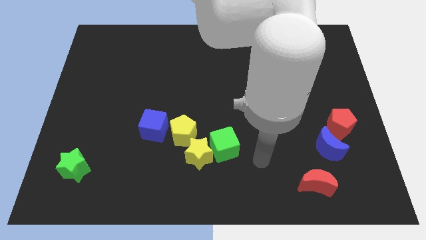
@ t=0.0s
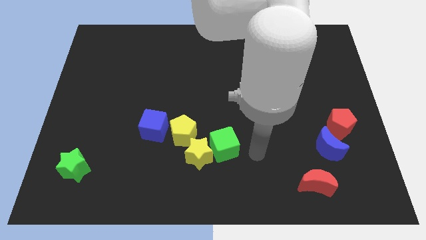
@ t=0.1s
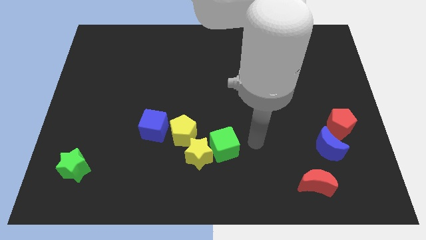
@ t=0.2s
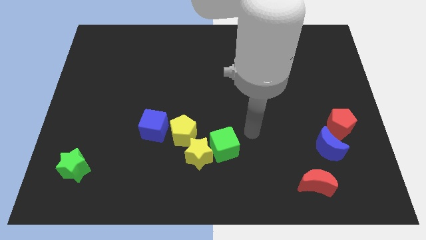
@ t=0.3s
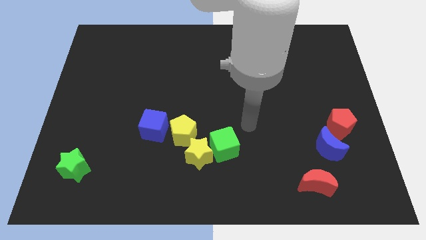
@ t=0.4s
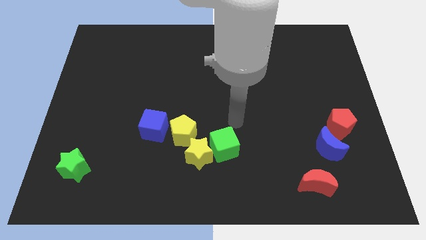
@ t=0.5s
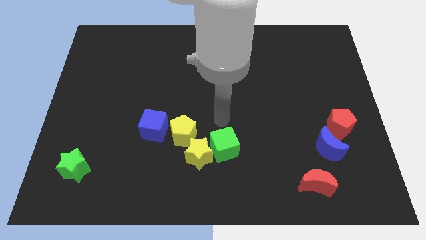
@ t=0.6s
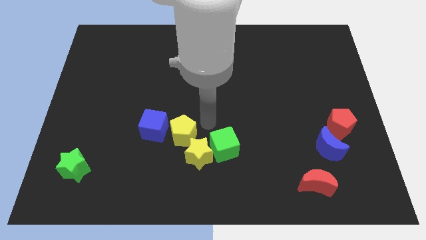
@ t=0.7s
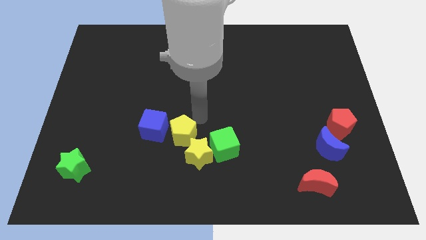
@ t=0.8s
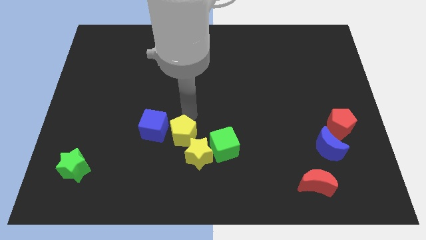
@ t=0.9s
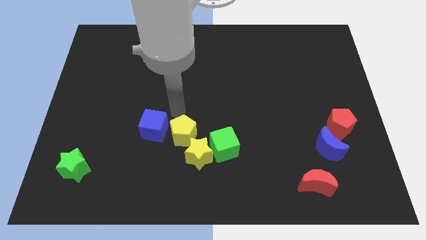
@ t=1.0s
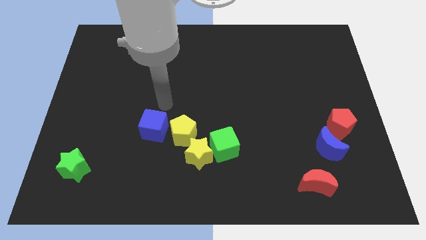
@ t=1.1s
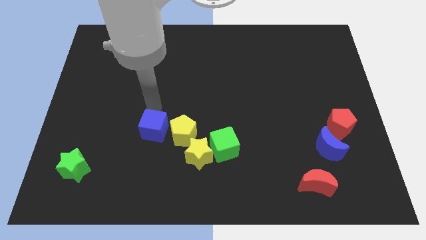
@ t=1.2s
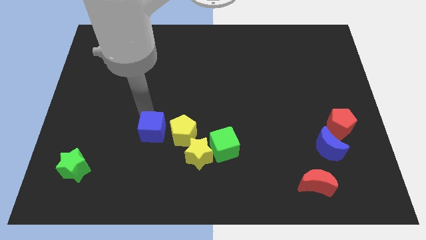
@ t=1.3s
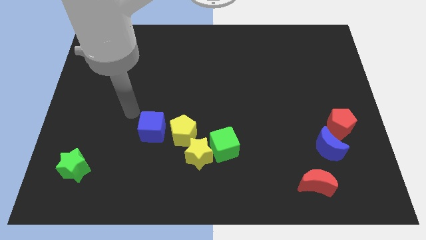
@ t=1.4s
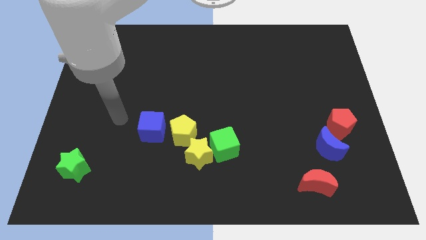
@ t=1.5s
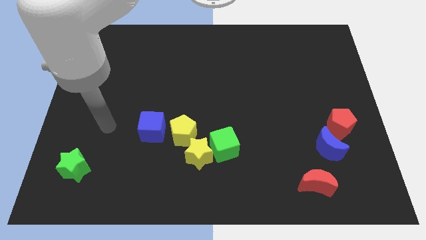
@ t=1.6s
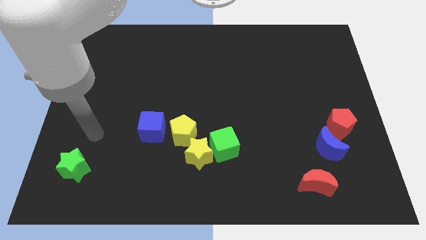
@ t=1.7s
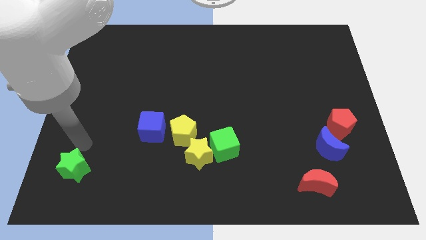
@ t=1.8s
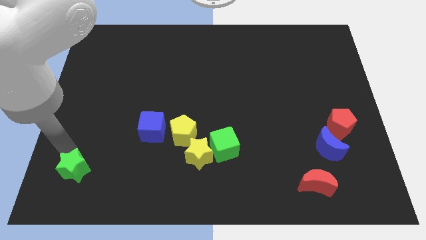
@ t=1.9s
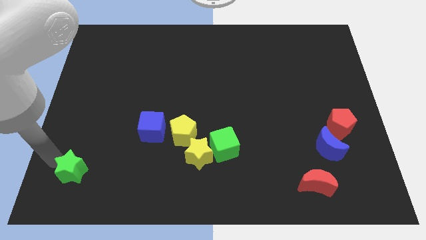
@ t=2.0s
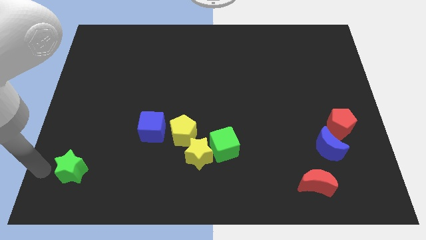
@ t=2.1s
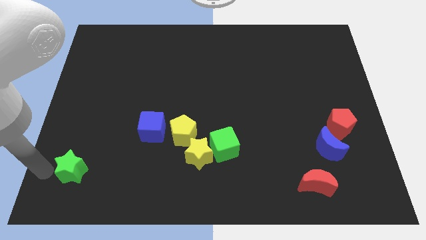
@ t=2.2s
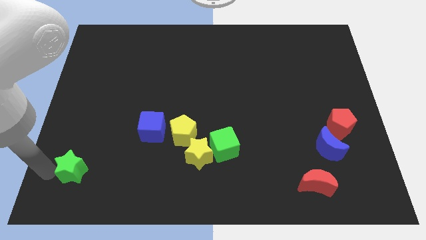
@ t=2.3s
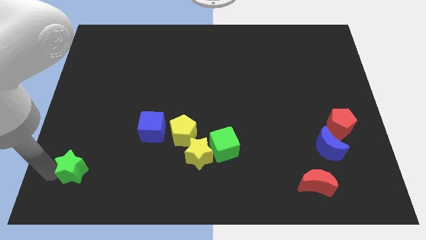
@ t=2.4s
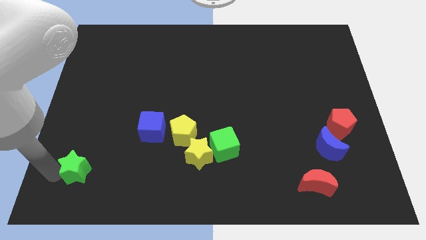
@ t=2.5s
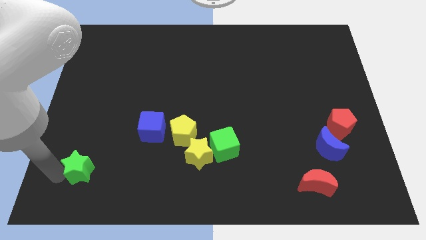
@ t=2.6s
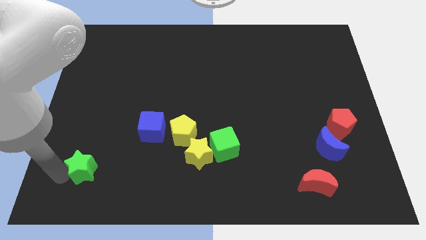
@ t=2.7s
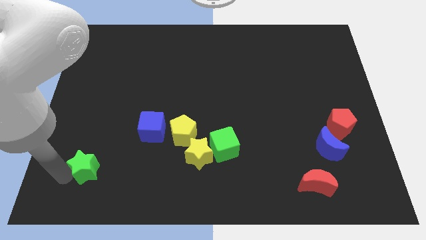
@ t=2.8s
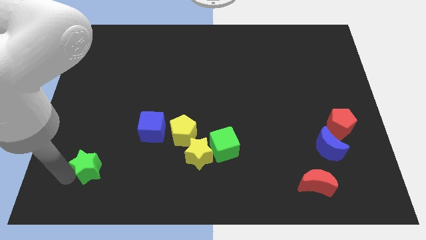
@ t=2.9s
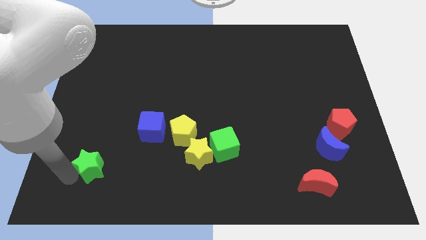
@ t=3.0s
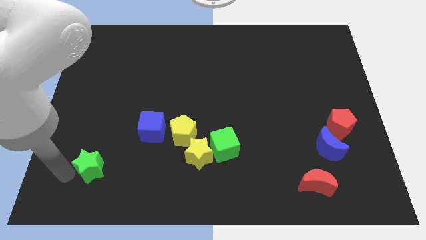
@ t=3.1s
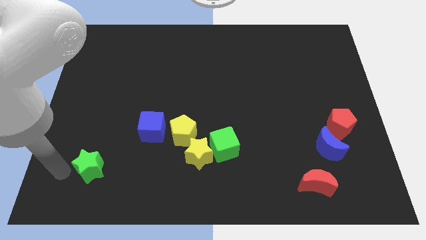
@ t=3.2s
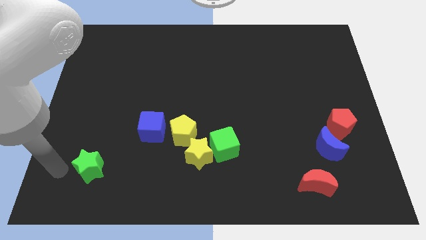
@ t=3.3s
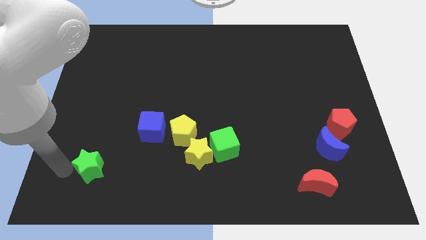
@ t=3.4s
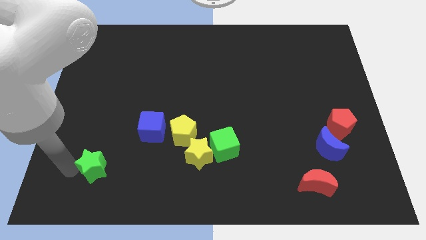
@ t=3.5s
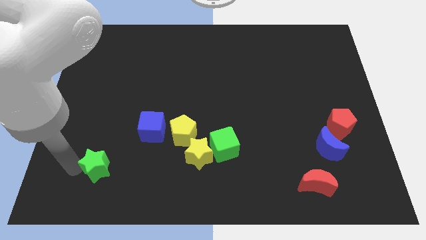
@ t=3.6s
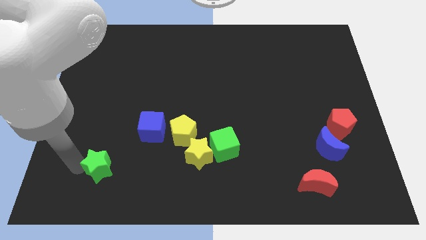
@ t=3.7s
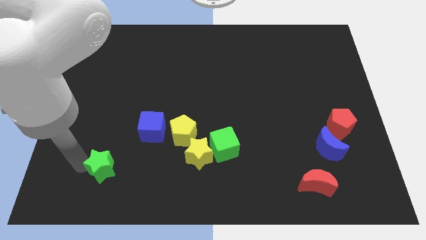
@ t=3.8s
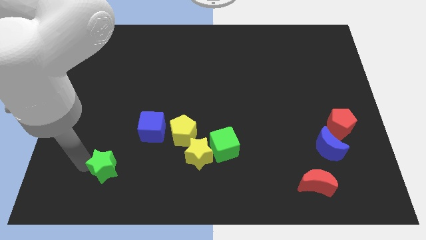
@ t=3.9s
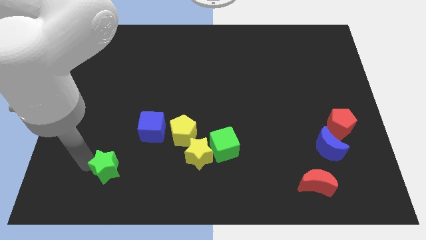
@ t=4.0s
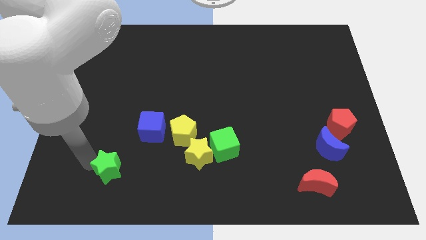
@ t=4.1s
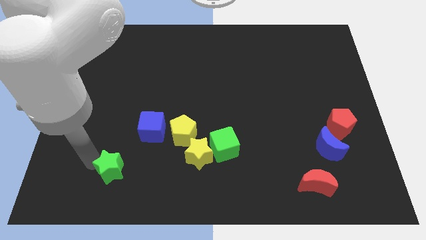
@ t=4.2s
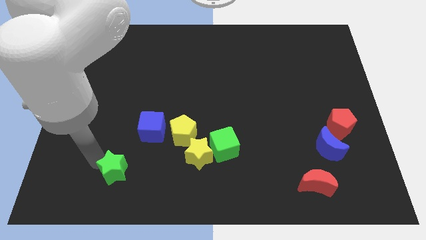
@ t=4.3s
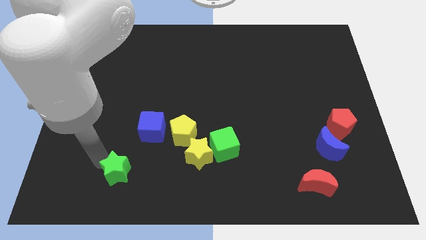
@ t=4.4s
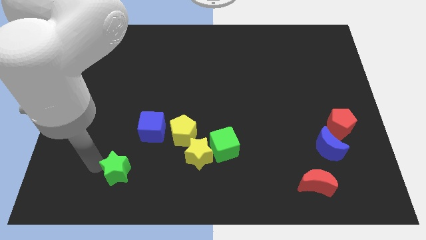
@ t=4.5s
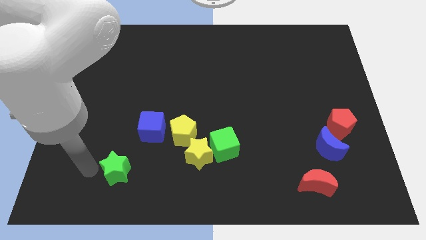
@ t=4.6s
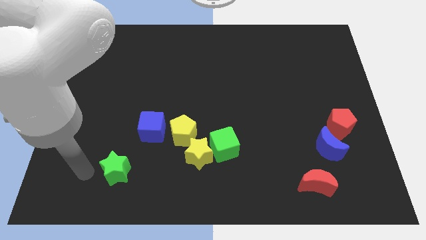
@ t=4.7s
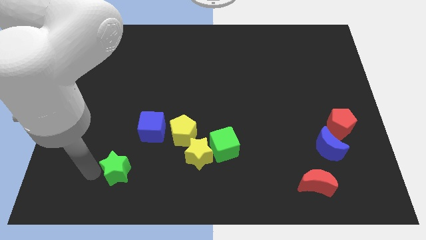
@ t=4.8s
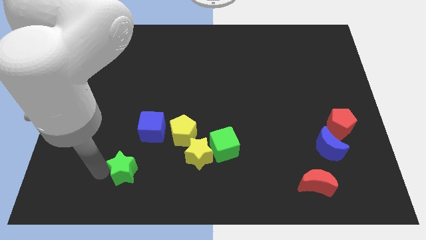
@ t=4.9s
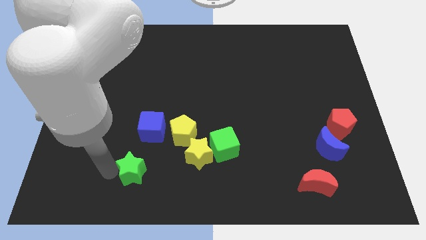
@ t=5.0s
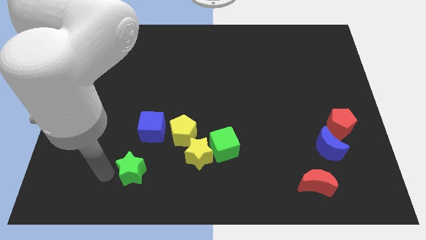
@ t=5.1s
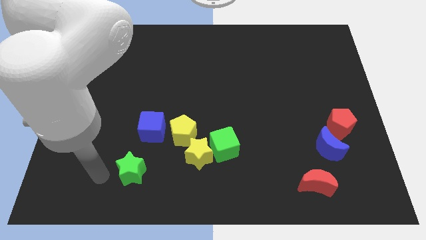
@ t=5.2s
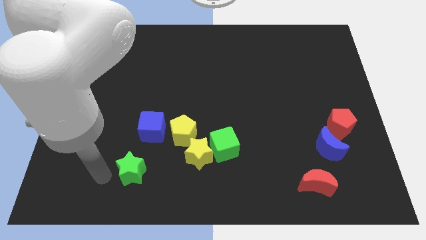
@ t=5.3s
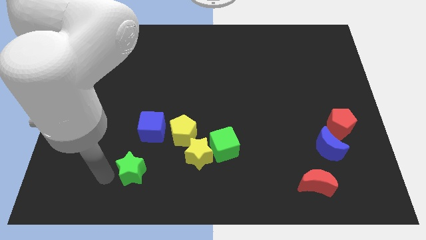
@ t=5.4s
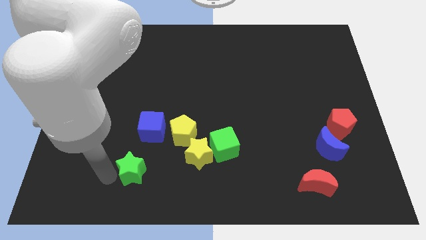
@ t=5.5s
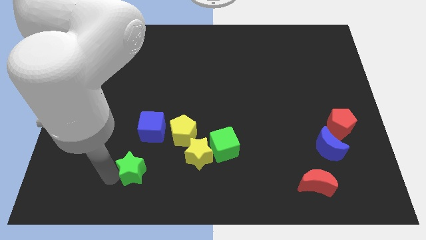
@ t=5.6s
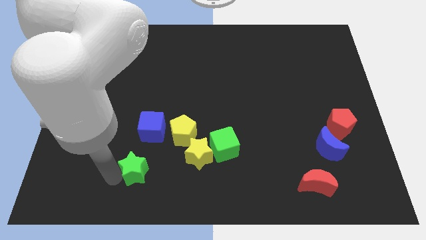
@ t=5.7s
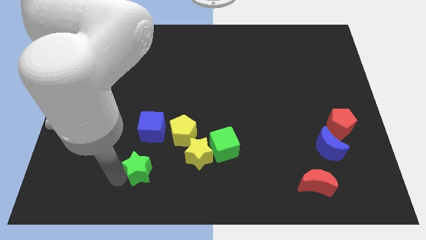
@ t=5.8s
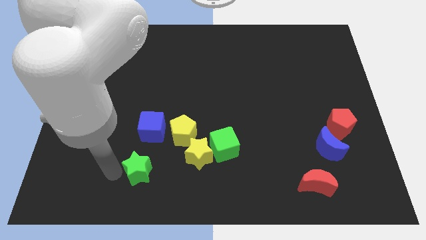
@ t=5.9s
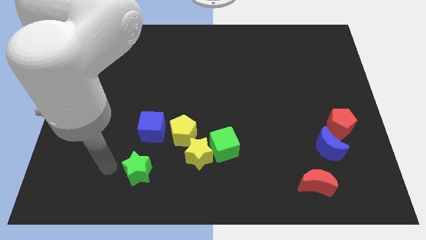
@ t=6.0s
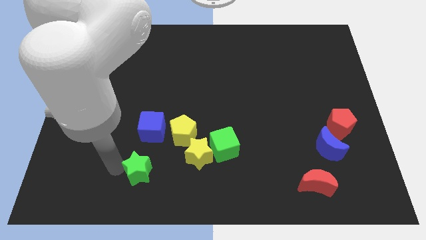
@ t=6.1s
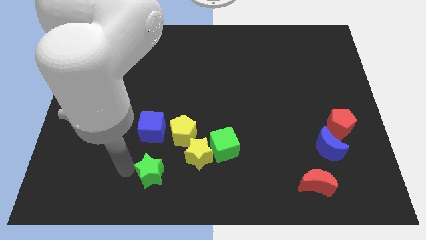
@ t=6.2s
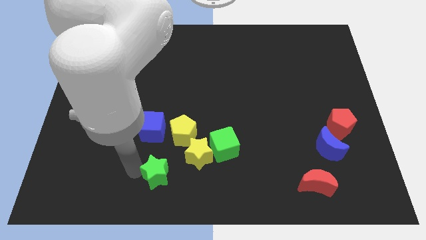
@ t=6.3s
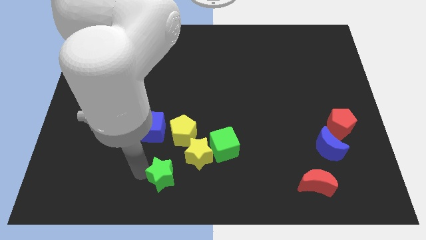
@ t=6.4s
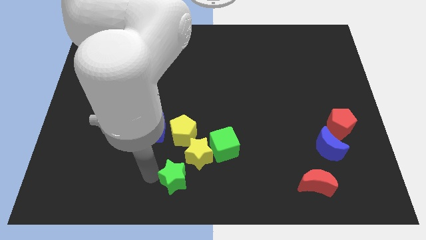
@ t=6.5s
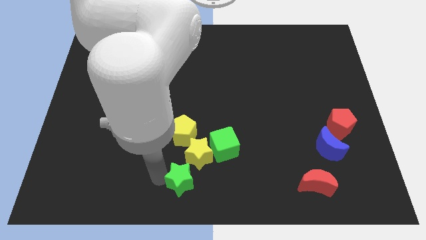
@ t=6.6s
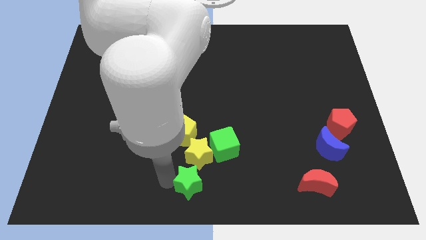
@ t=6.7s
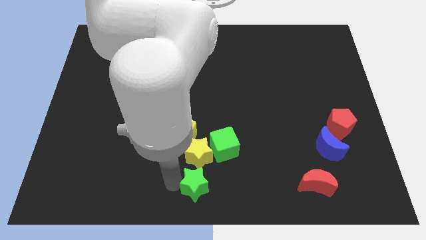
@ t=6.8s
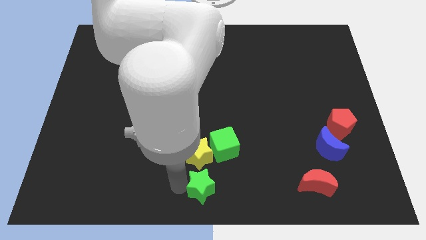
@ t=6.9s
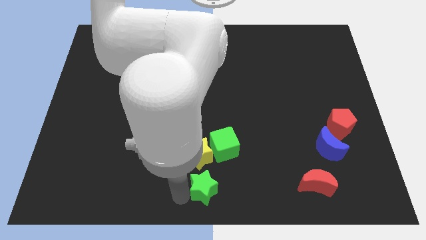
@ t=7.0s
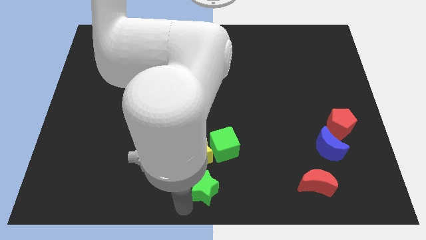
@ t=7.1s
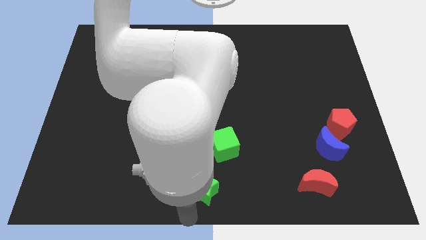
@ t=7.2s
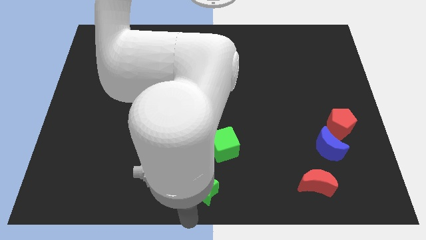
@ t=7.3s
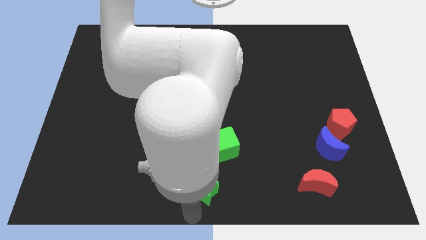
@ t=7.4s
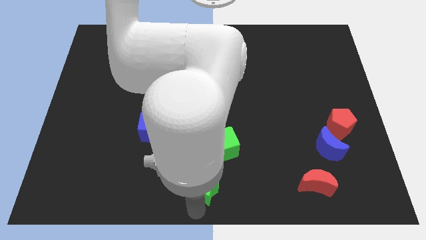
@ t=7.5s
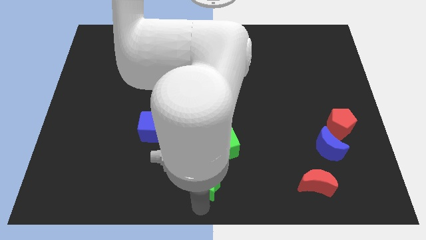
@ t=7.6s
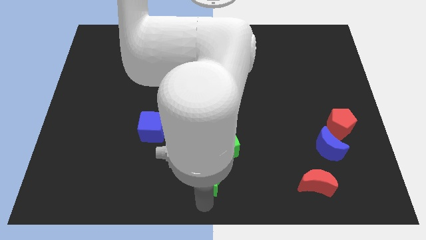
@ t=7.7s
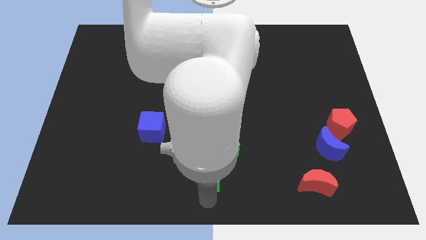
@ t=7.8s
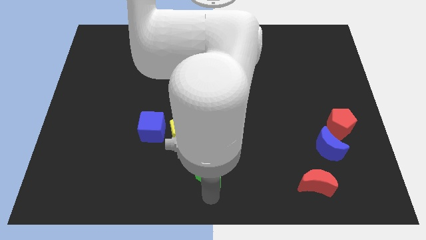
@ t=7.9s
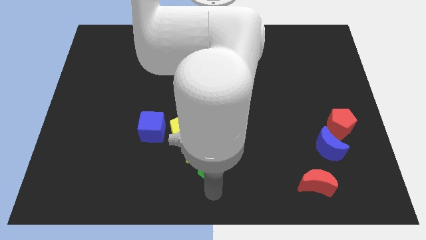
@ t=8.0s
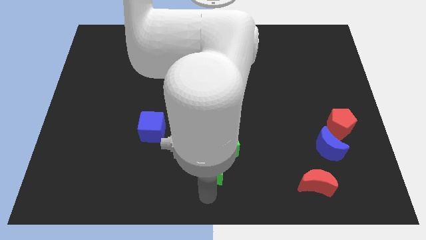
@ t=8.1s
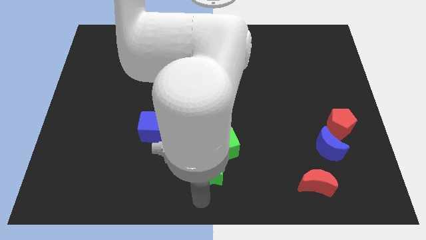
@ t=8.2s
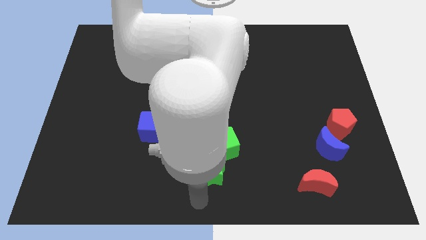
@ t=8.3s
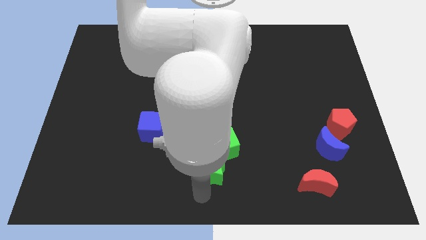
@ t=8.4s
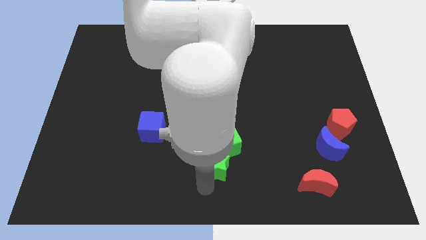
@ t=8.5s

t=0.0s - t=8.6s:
slide the green star to the green cube
